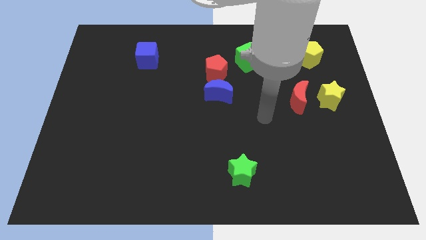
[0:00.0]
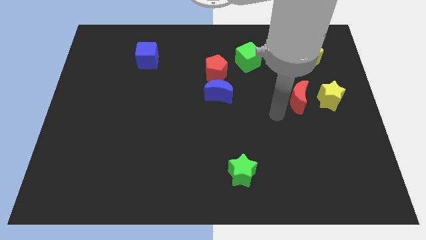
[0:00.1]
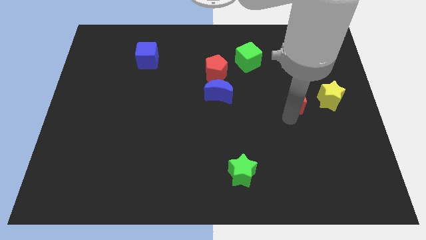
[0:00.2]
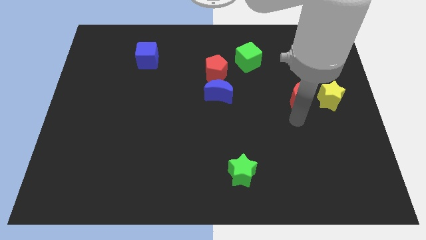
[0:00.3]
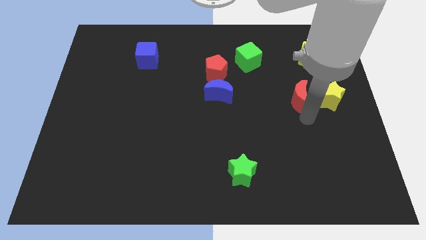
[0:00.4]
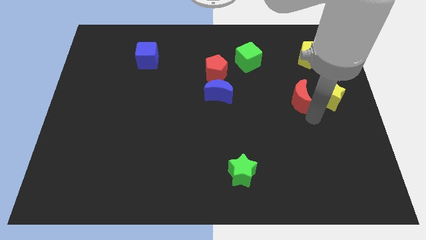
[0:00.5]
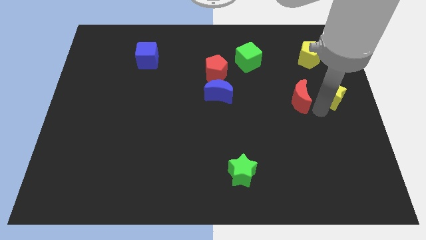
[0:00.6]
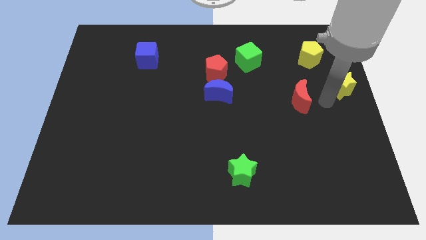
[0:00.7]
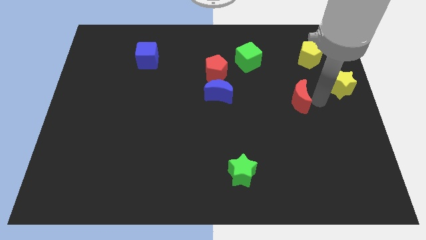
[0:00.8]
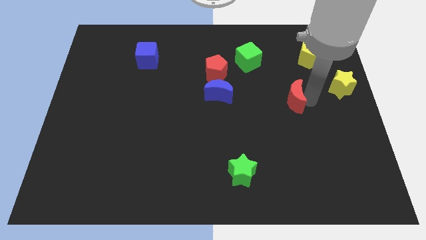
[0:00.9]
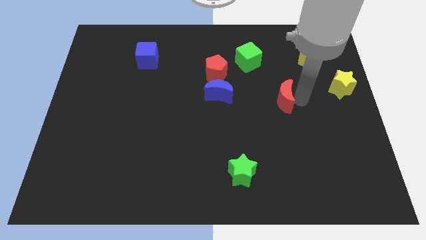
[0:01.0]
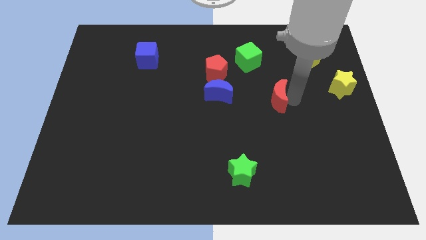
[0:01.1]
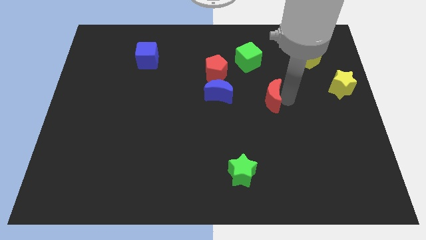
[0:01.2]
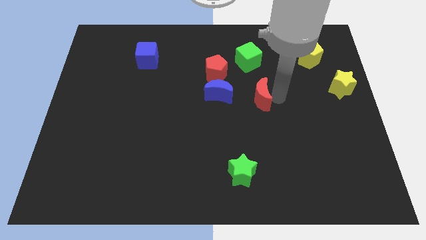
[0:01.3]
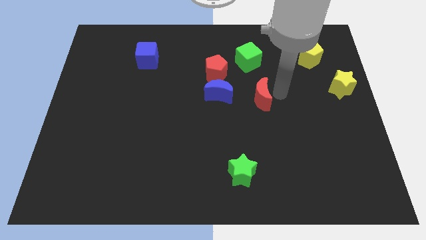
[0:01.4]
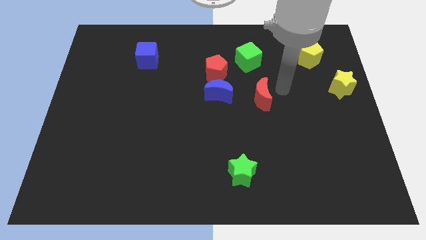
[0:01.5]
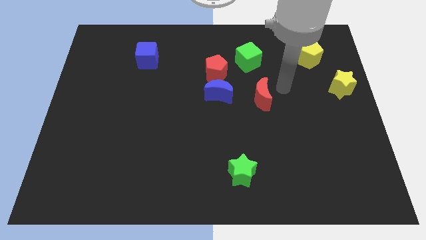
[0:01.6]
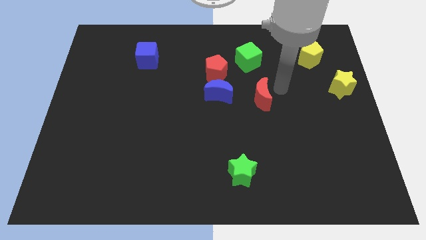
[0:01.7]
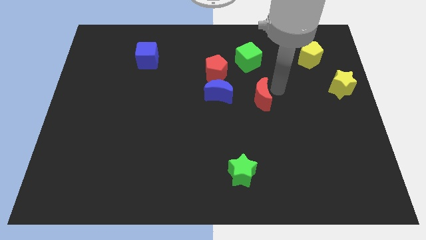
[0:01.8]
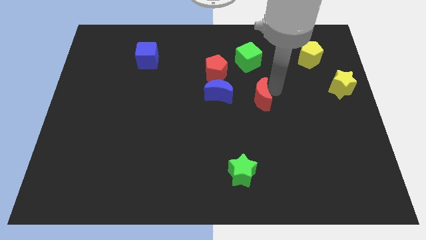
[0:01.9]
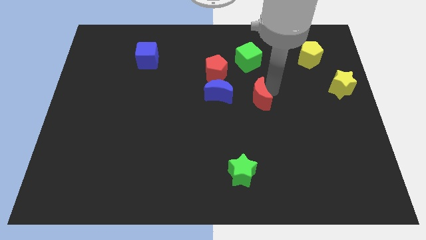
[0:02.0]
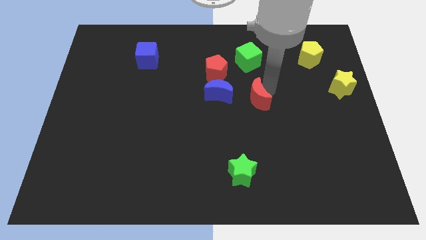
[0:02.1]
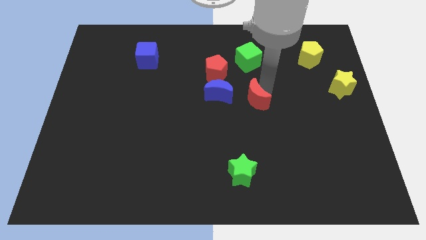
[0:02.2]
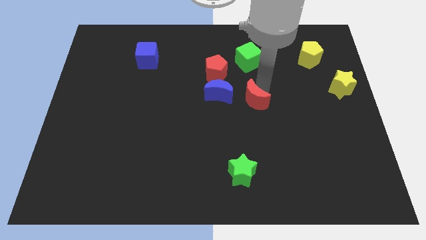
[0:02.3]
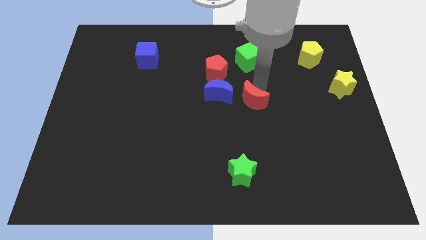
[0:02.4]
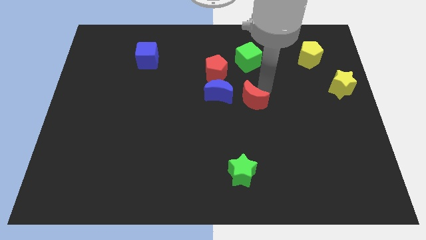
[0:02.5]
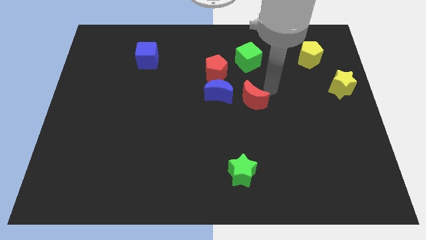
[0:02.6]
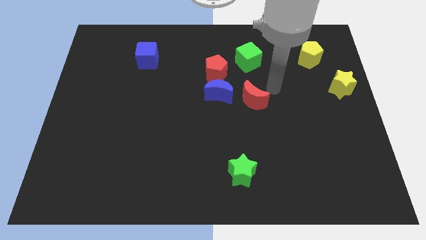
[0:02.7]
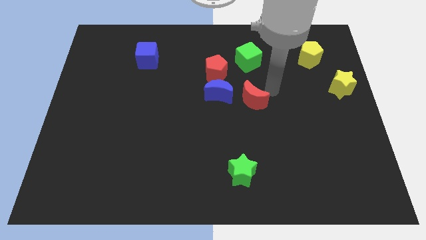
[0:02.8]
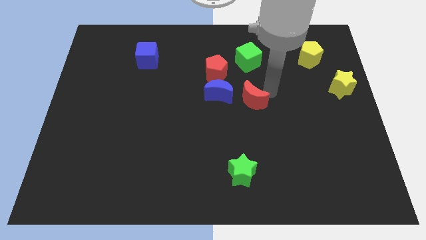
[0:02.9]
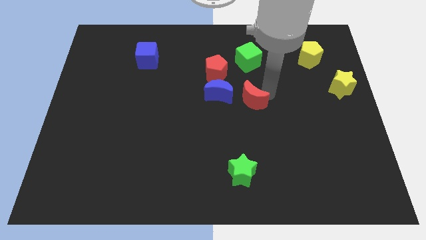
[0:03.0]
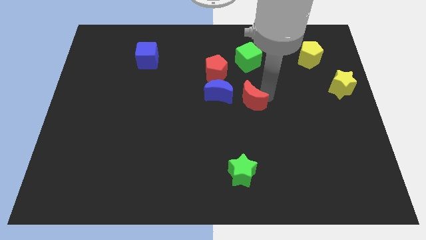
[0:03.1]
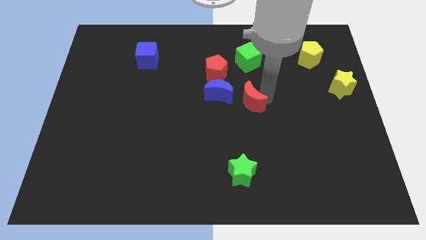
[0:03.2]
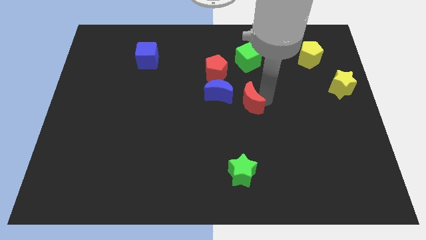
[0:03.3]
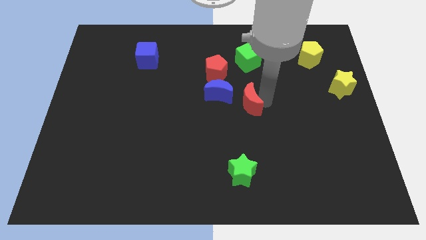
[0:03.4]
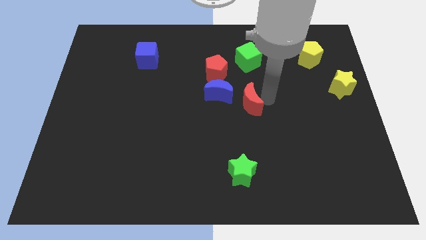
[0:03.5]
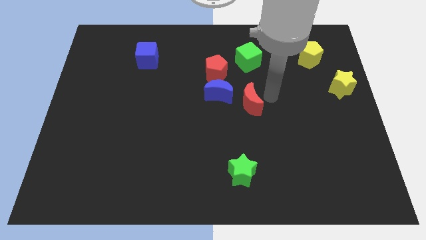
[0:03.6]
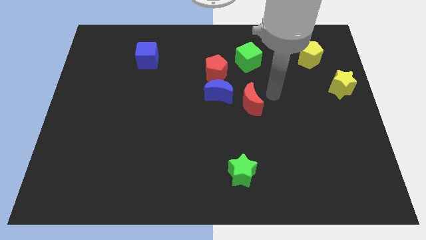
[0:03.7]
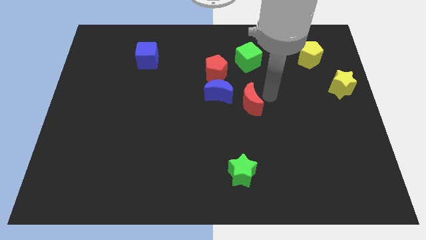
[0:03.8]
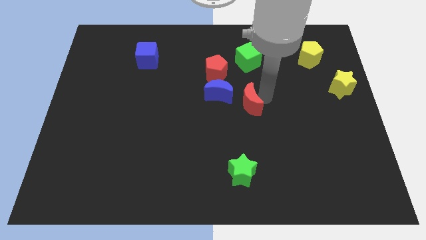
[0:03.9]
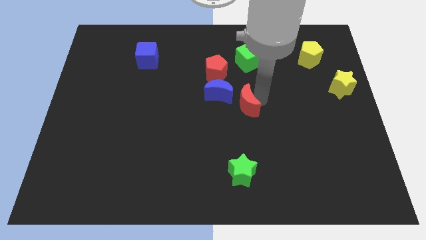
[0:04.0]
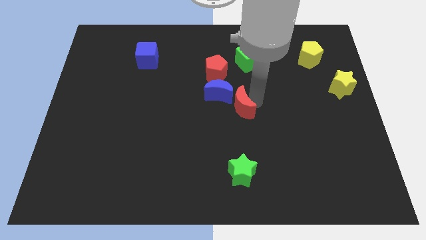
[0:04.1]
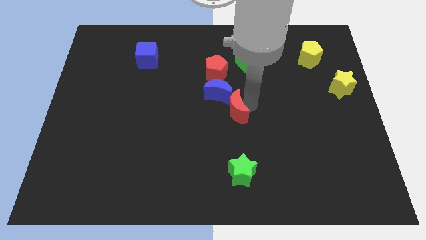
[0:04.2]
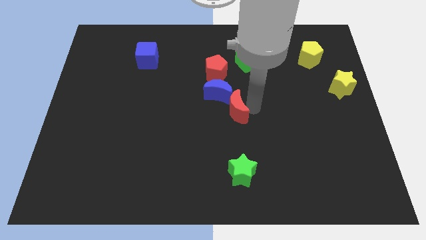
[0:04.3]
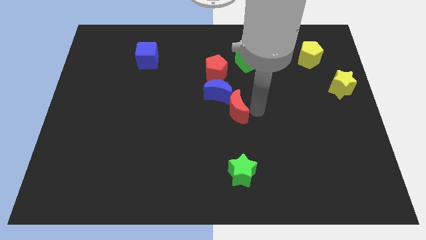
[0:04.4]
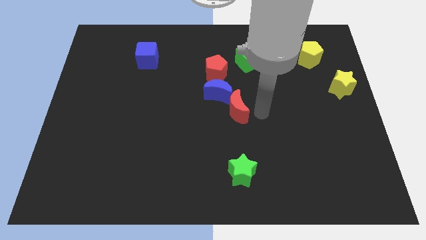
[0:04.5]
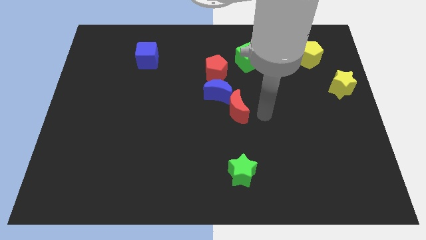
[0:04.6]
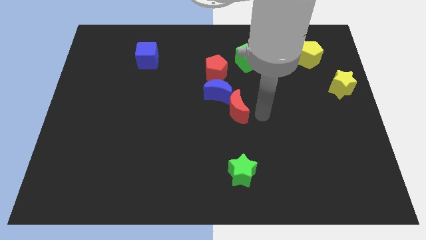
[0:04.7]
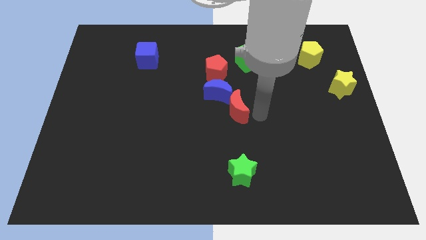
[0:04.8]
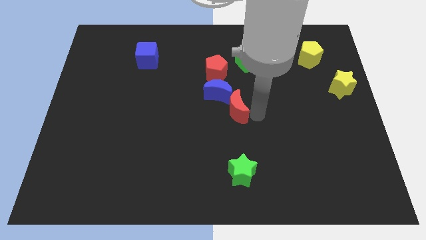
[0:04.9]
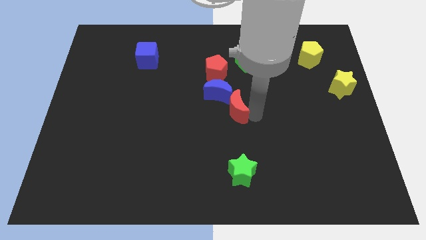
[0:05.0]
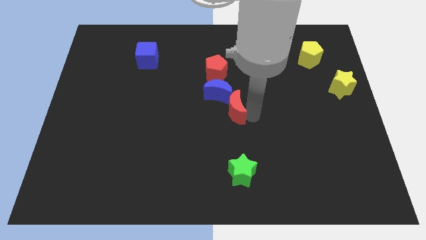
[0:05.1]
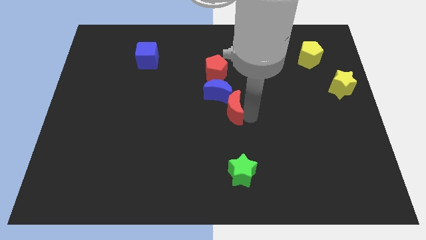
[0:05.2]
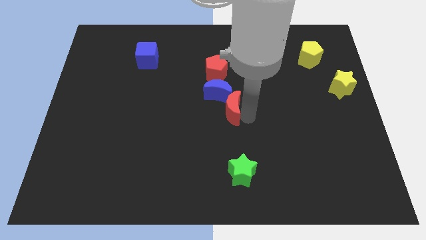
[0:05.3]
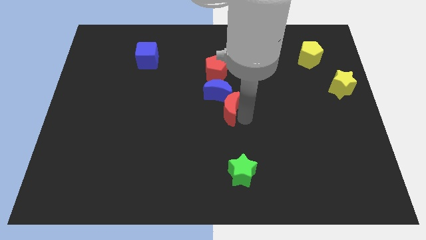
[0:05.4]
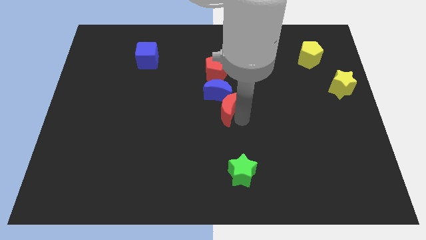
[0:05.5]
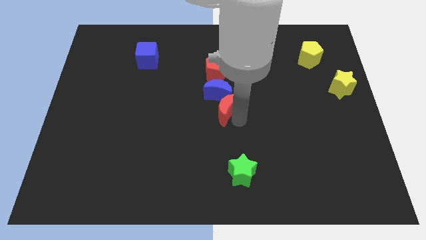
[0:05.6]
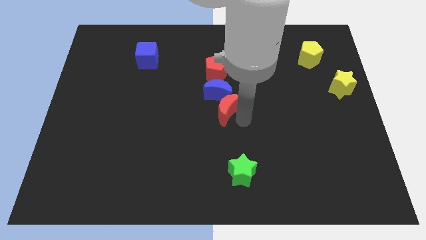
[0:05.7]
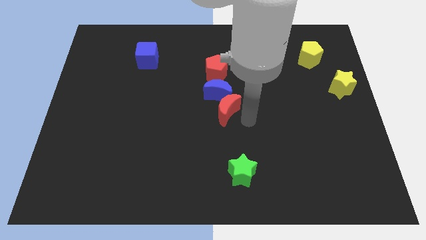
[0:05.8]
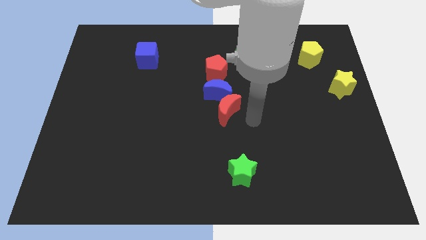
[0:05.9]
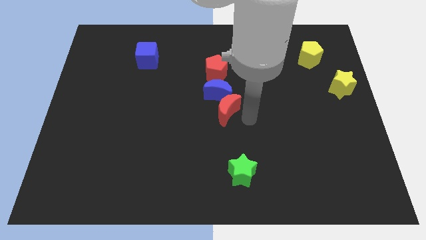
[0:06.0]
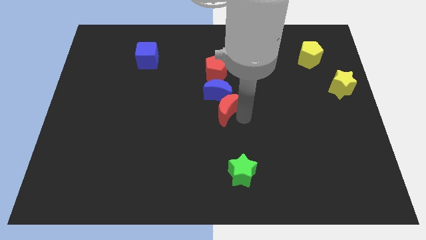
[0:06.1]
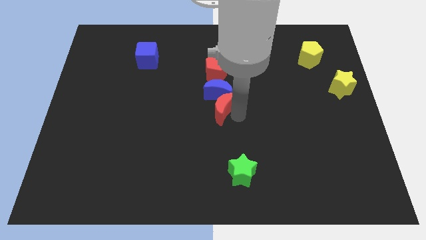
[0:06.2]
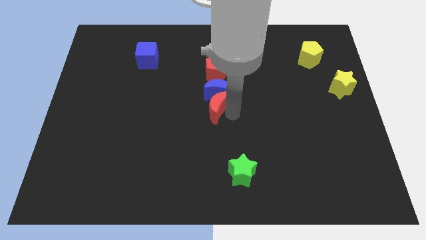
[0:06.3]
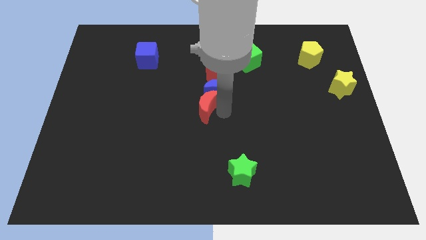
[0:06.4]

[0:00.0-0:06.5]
slide the red moon left

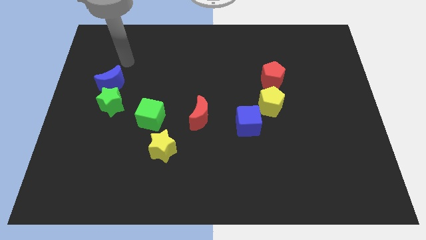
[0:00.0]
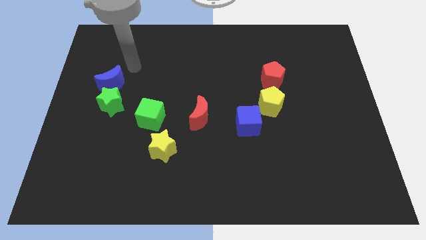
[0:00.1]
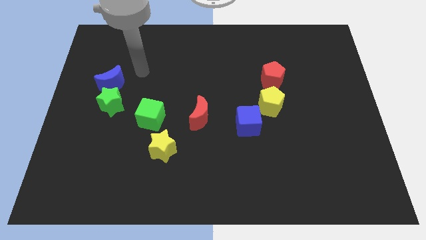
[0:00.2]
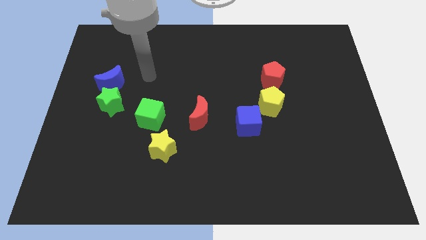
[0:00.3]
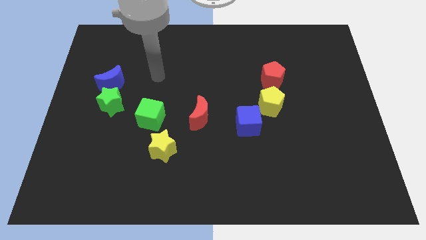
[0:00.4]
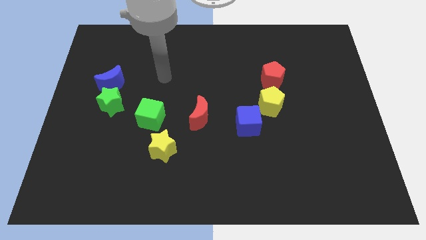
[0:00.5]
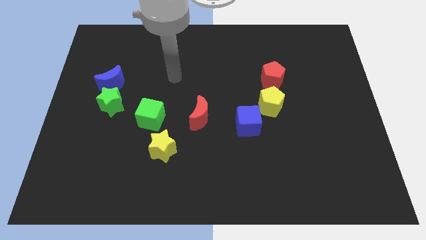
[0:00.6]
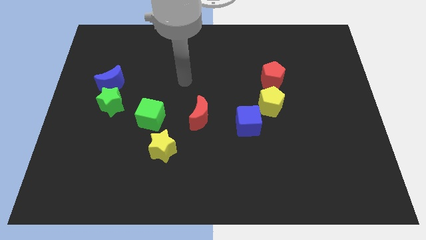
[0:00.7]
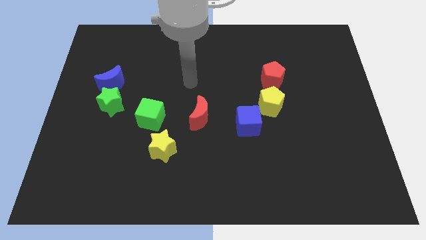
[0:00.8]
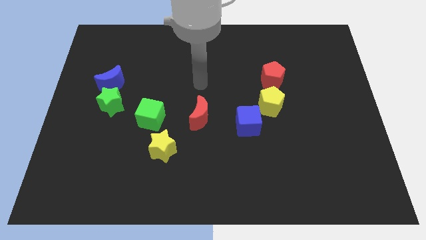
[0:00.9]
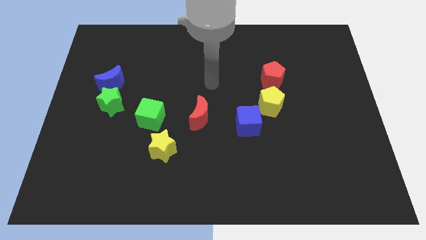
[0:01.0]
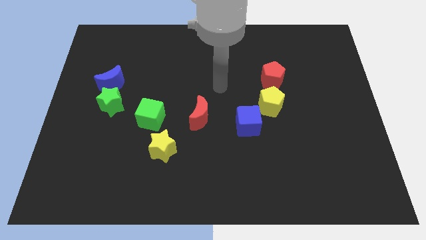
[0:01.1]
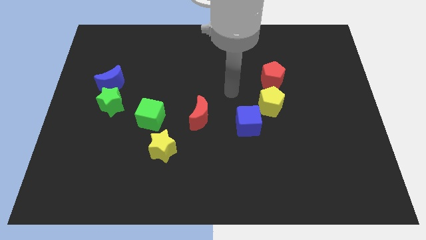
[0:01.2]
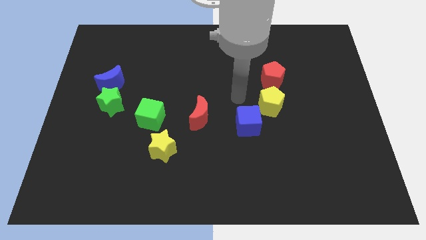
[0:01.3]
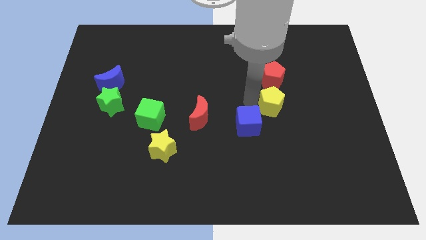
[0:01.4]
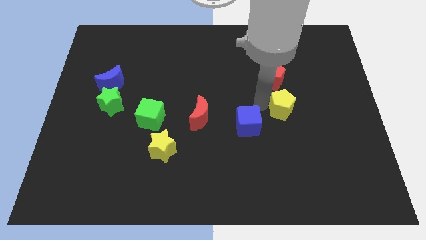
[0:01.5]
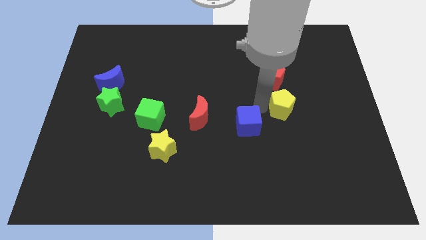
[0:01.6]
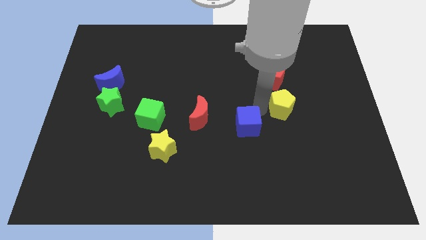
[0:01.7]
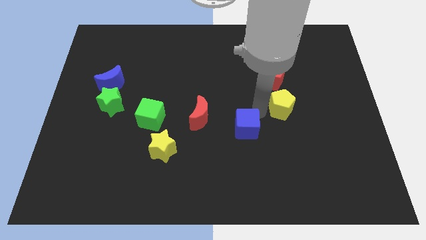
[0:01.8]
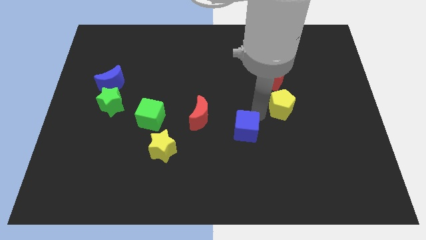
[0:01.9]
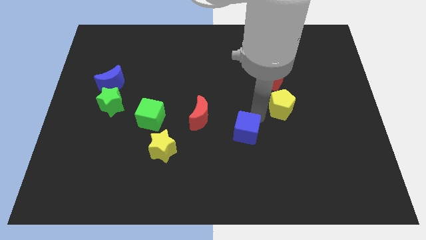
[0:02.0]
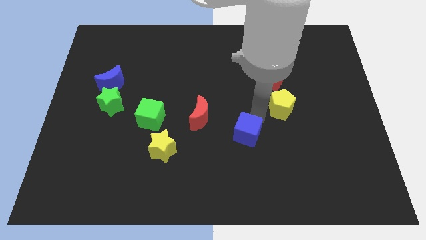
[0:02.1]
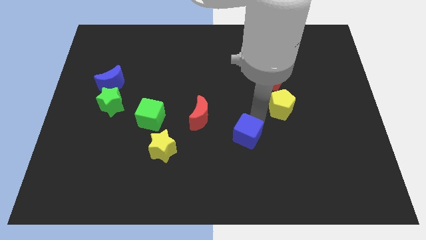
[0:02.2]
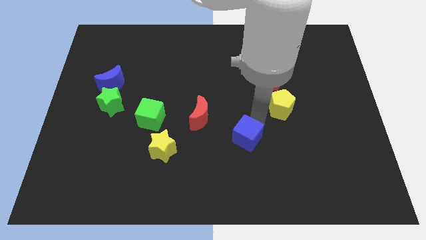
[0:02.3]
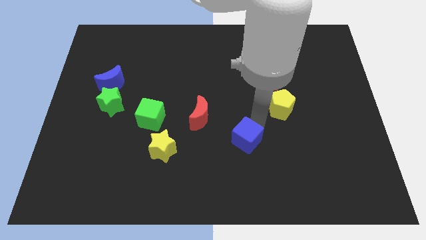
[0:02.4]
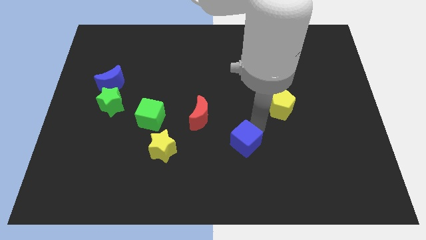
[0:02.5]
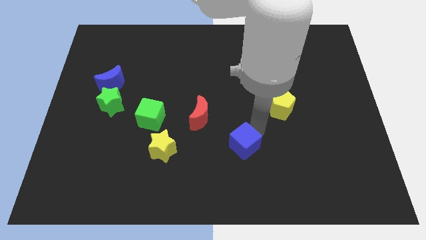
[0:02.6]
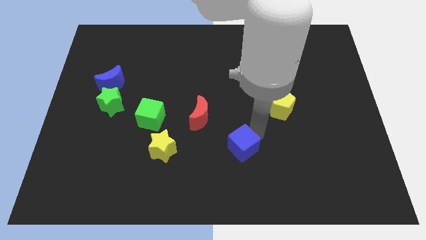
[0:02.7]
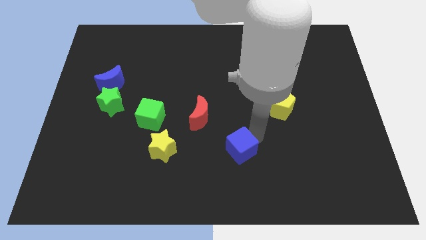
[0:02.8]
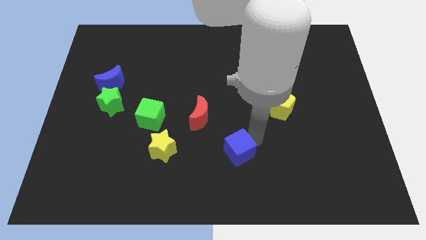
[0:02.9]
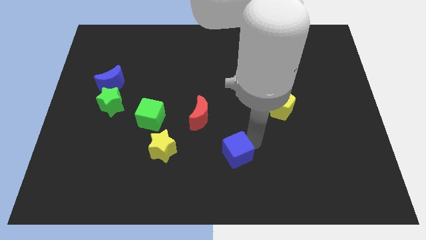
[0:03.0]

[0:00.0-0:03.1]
move the blue cube a little downwards and then left
